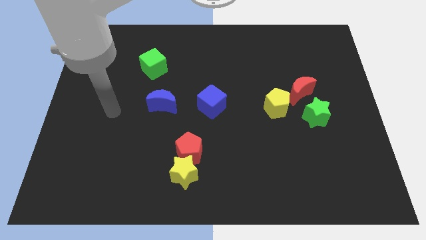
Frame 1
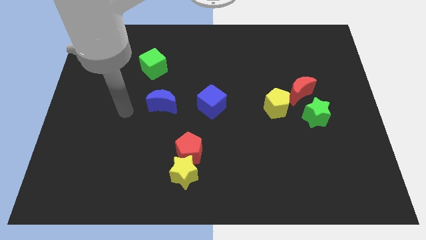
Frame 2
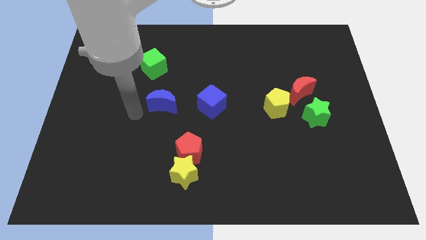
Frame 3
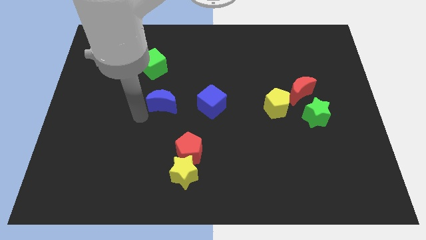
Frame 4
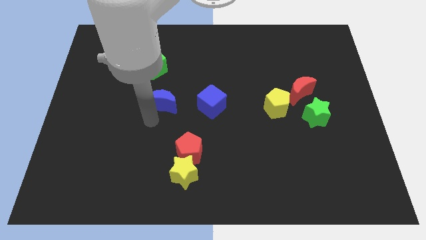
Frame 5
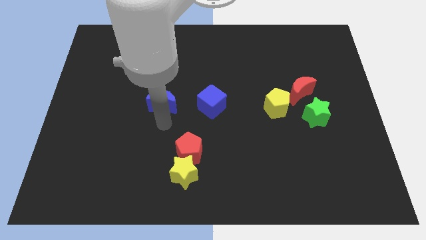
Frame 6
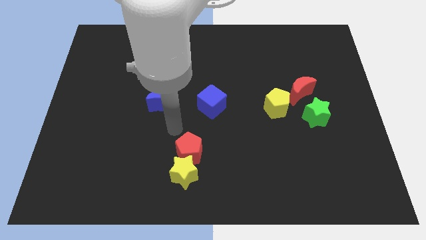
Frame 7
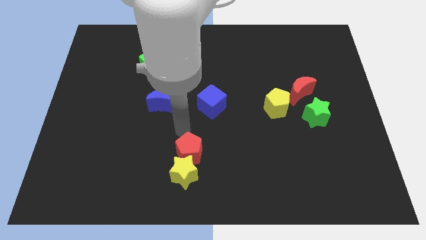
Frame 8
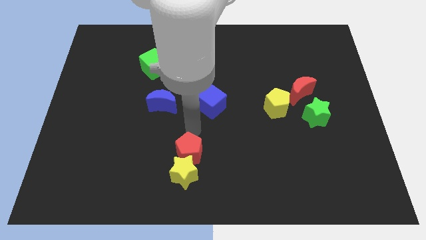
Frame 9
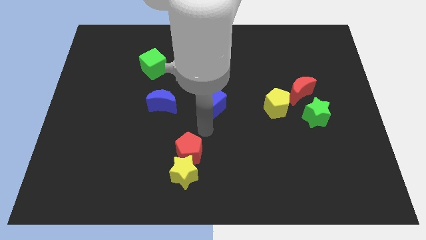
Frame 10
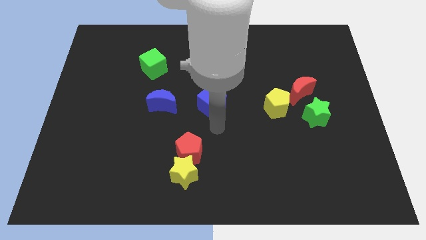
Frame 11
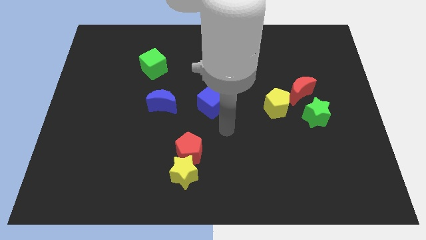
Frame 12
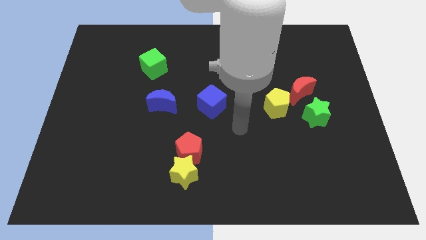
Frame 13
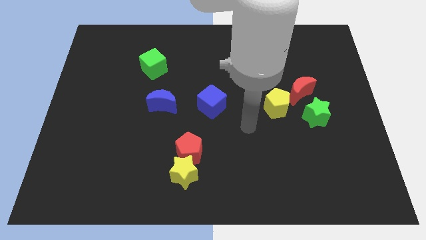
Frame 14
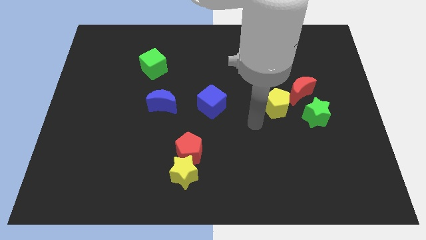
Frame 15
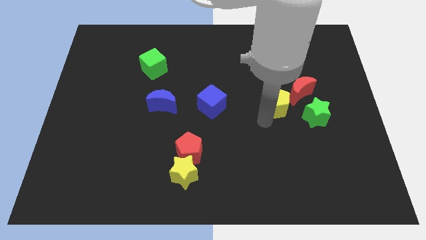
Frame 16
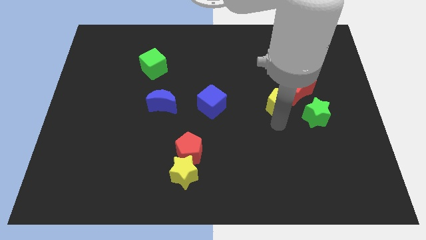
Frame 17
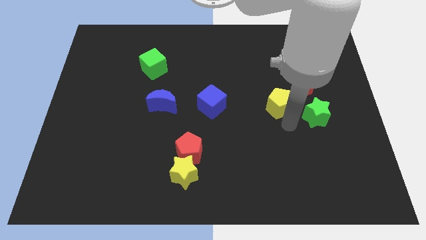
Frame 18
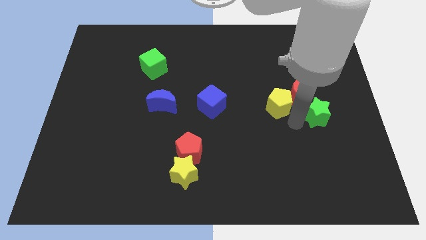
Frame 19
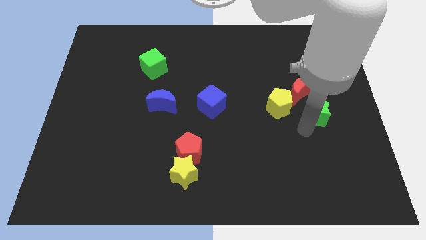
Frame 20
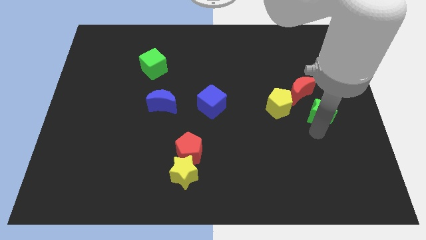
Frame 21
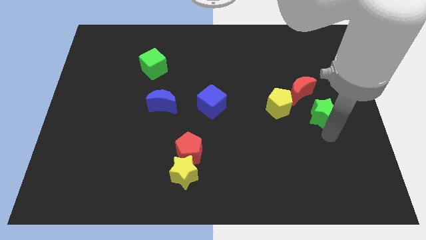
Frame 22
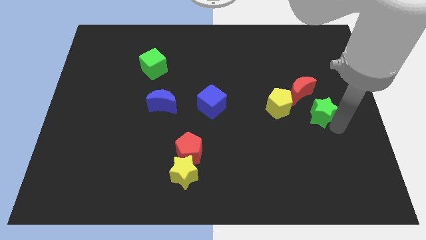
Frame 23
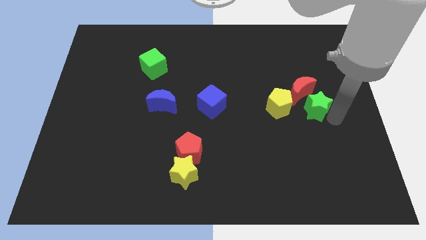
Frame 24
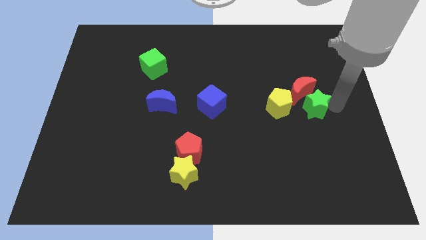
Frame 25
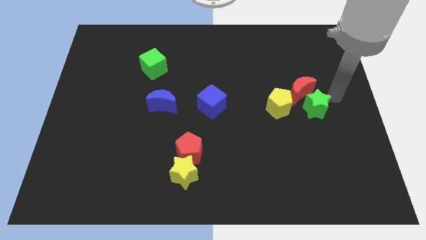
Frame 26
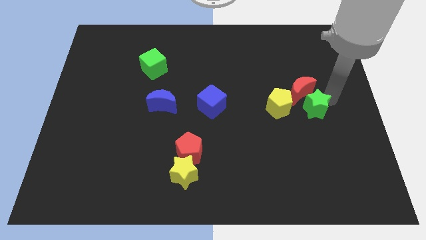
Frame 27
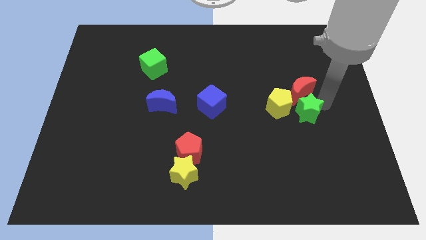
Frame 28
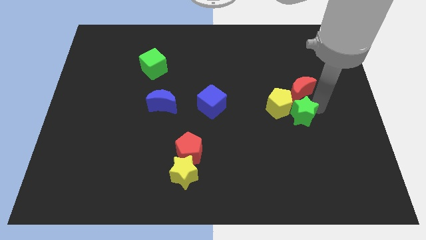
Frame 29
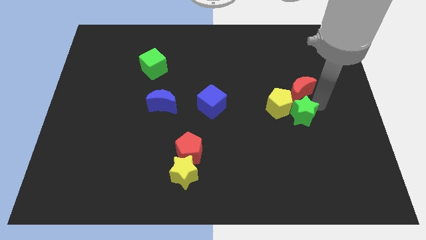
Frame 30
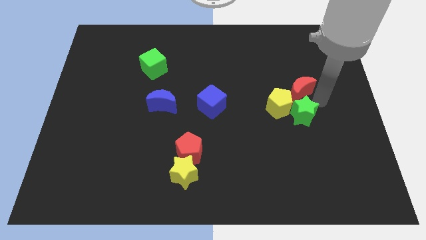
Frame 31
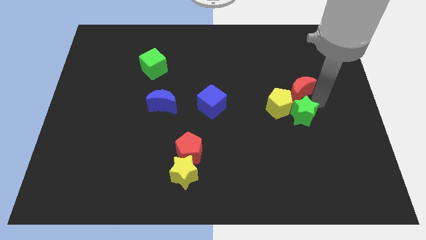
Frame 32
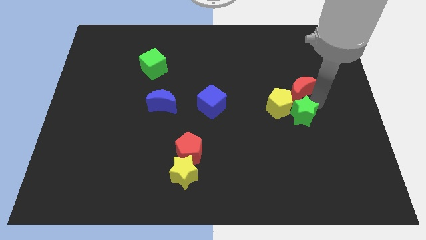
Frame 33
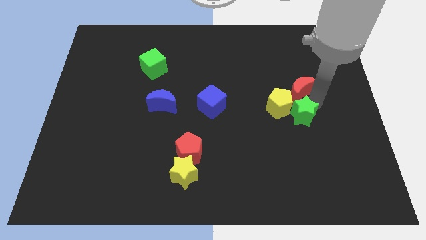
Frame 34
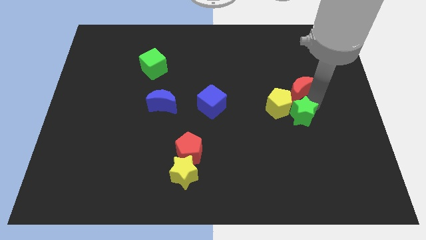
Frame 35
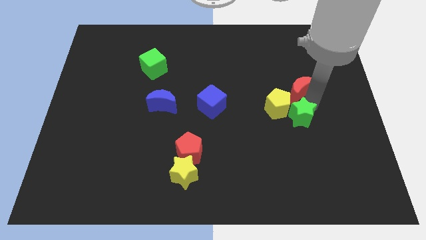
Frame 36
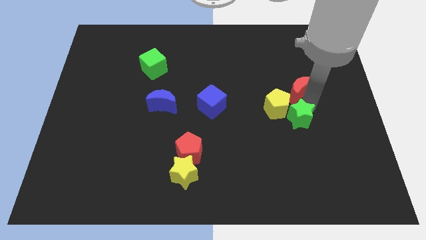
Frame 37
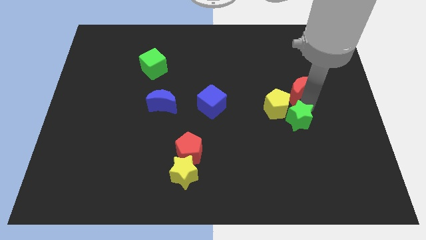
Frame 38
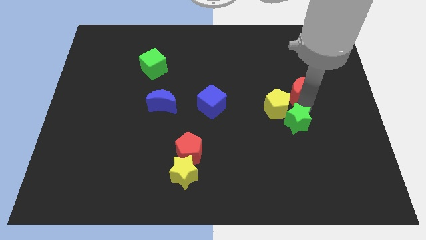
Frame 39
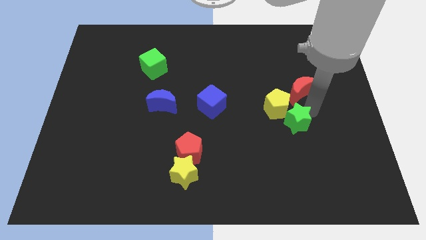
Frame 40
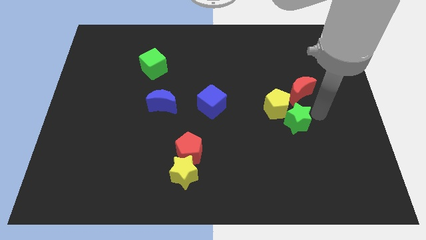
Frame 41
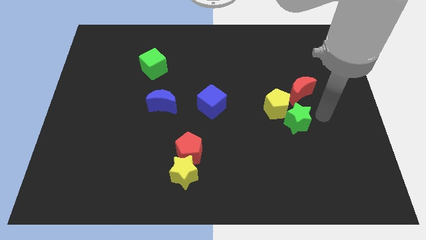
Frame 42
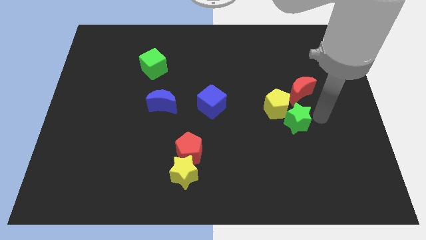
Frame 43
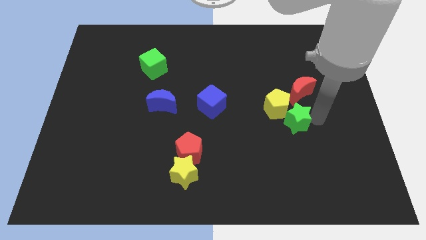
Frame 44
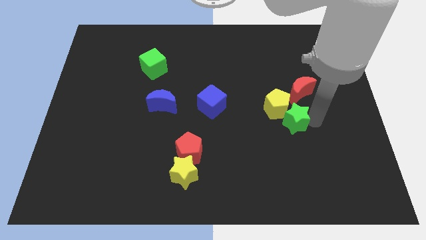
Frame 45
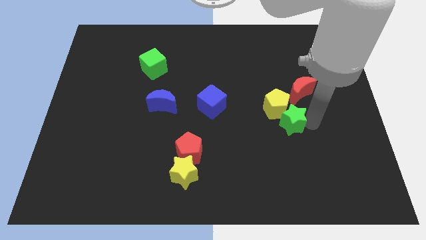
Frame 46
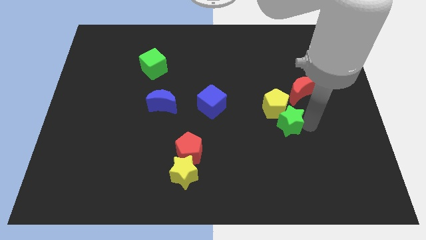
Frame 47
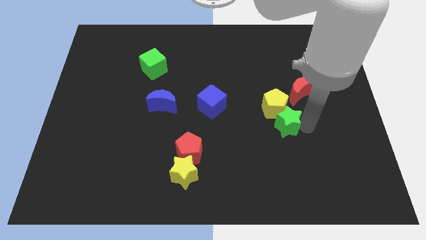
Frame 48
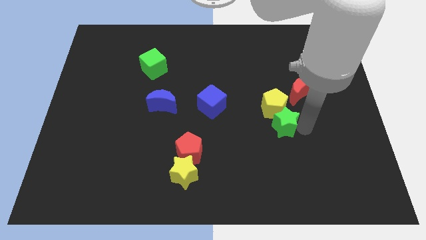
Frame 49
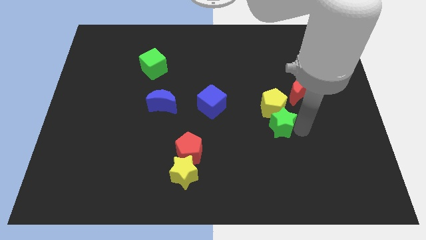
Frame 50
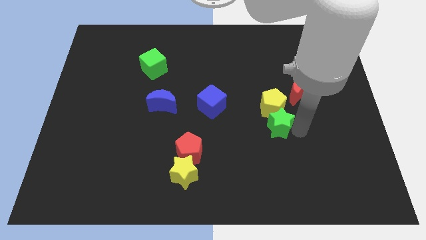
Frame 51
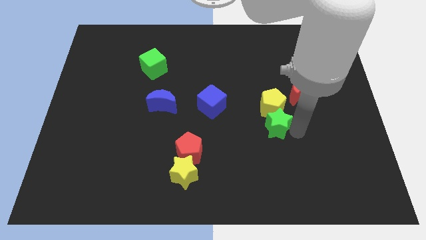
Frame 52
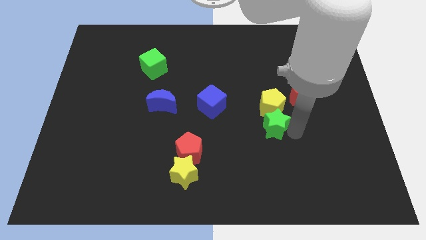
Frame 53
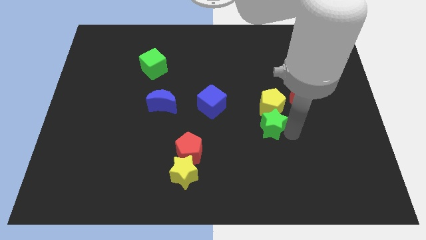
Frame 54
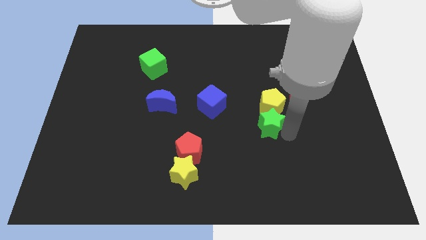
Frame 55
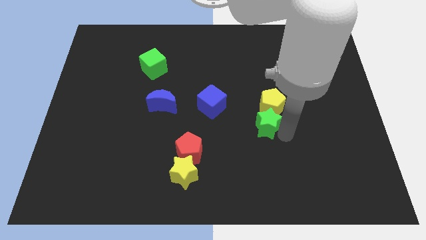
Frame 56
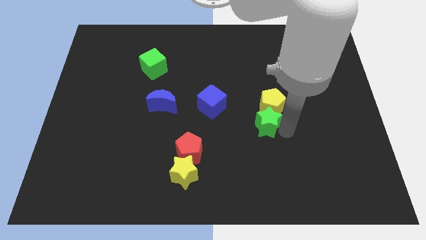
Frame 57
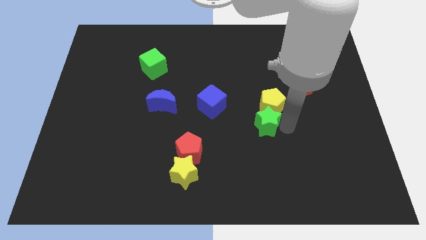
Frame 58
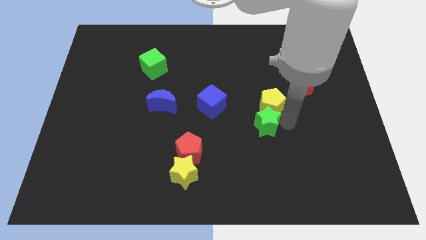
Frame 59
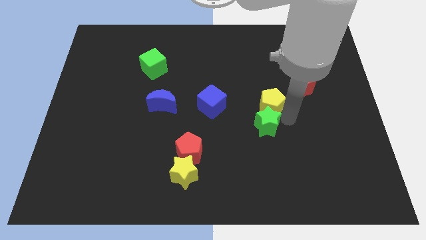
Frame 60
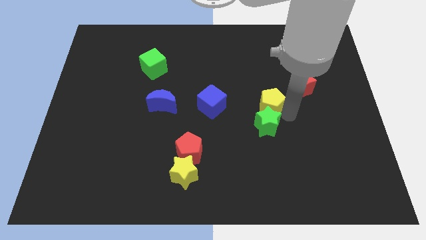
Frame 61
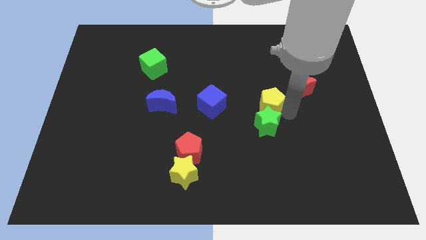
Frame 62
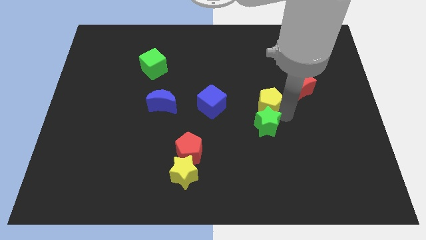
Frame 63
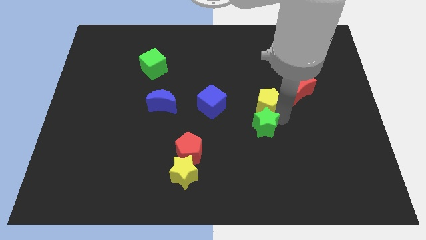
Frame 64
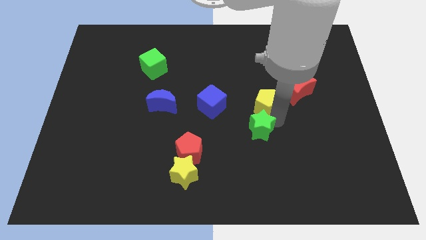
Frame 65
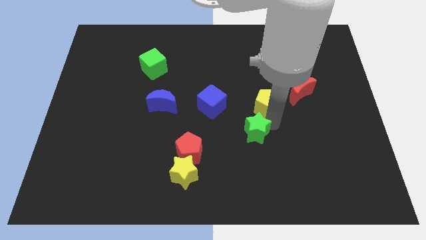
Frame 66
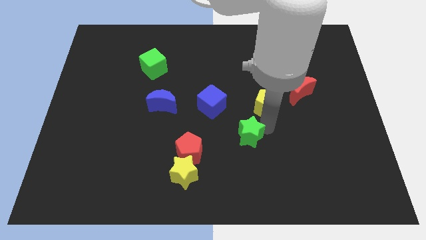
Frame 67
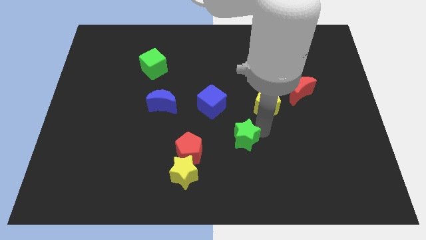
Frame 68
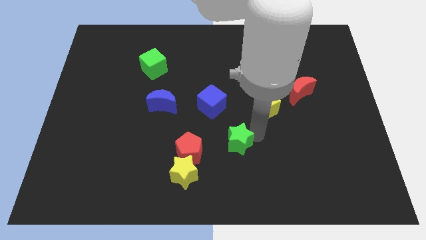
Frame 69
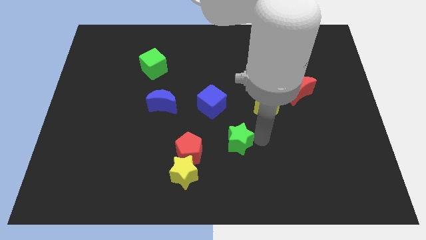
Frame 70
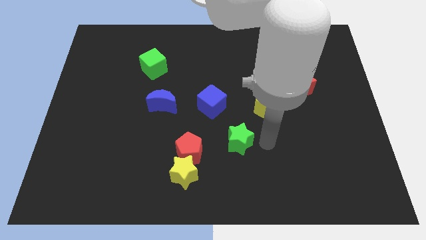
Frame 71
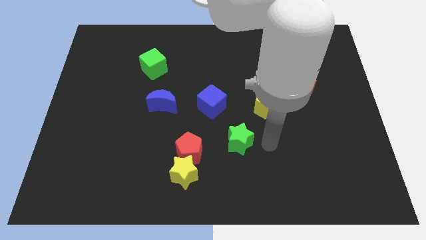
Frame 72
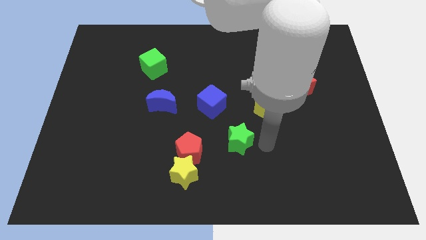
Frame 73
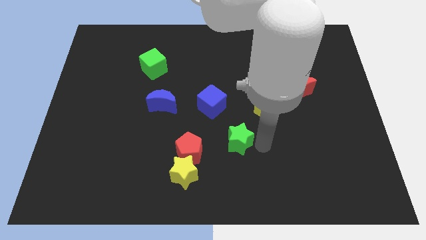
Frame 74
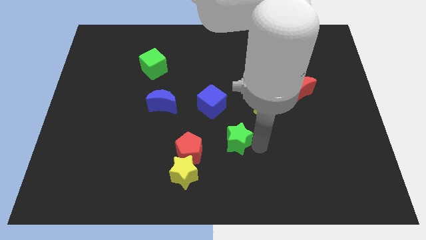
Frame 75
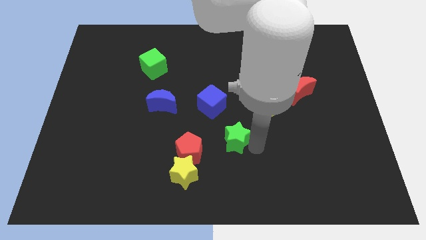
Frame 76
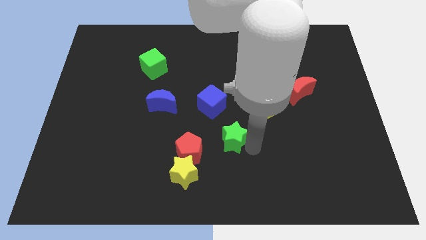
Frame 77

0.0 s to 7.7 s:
move the green star below the blue cube

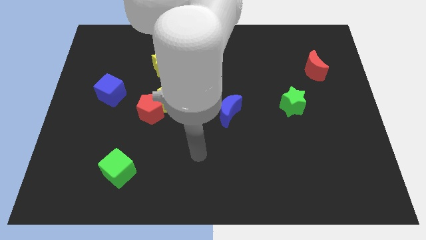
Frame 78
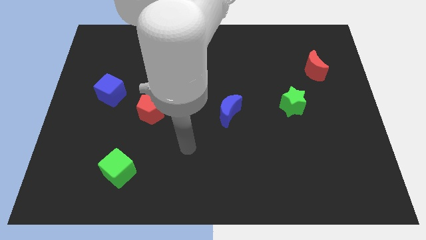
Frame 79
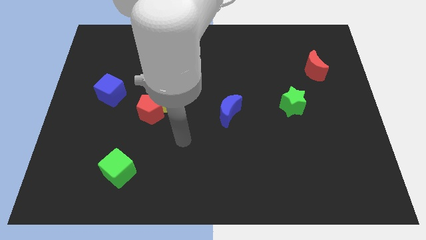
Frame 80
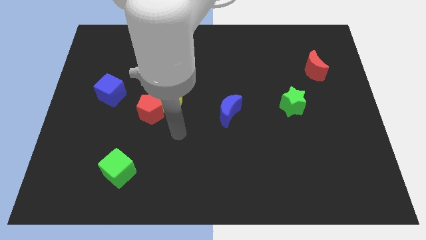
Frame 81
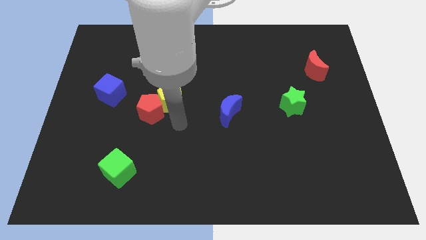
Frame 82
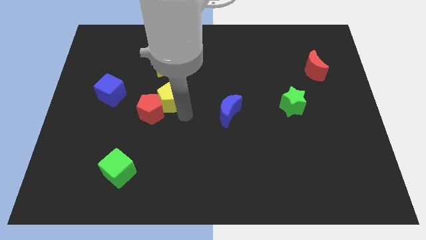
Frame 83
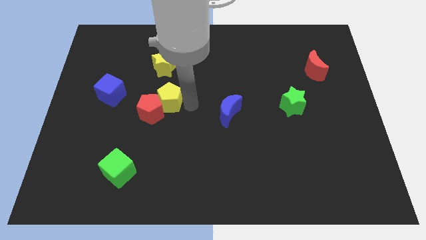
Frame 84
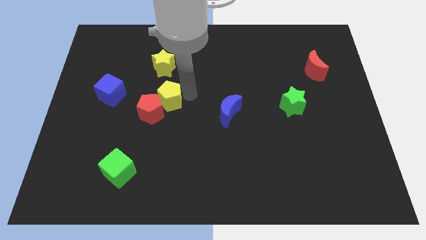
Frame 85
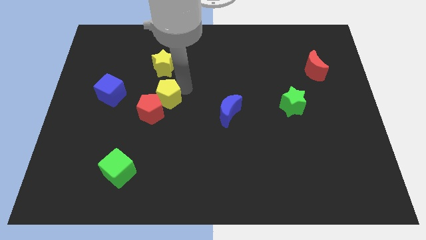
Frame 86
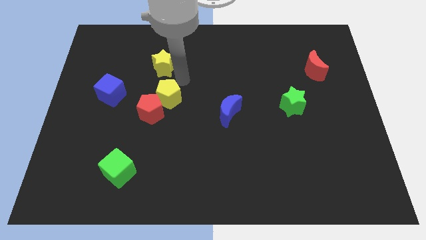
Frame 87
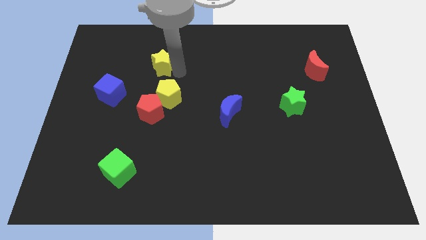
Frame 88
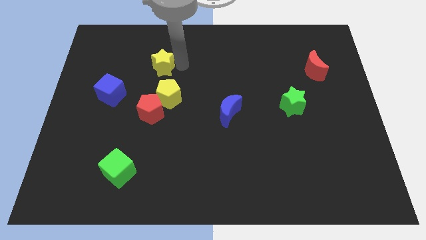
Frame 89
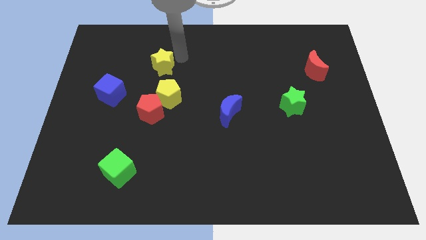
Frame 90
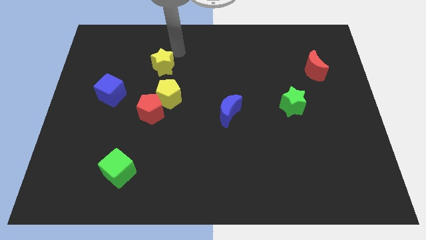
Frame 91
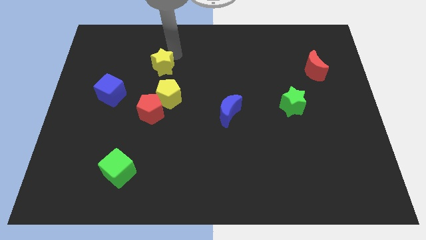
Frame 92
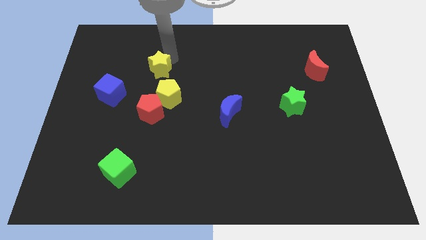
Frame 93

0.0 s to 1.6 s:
put the yellow star to the top left of the yellow pentagon
